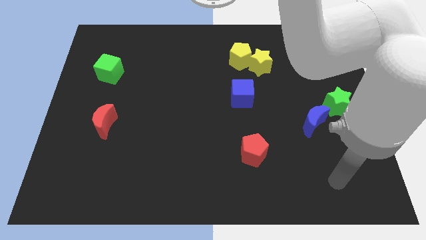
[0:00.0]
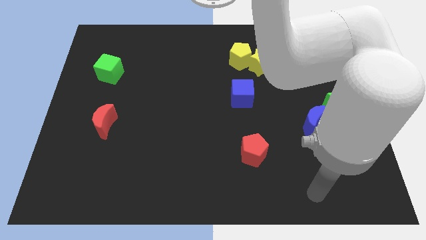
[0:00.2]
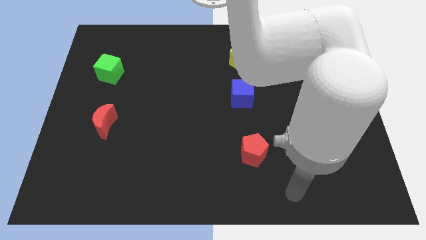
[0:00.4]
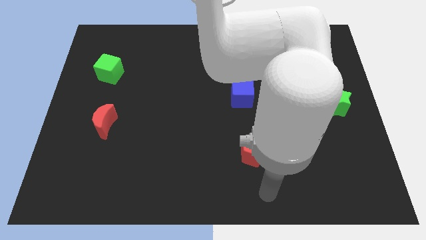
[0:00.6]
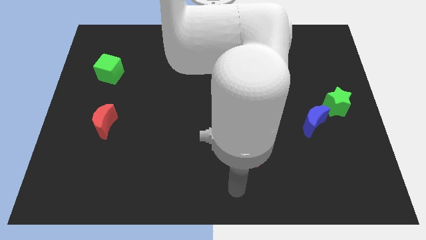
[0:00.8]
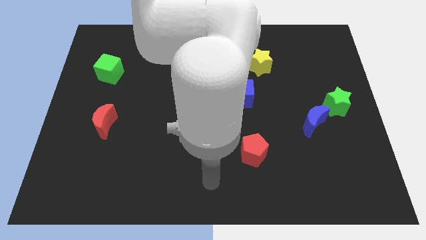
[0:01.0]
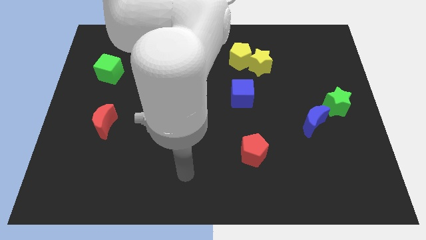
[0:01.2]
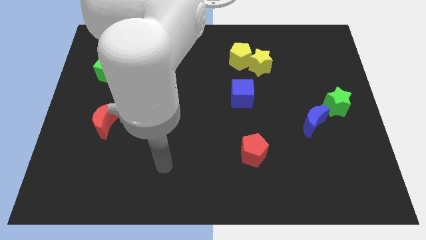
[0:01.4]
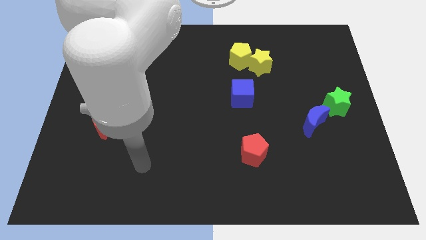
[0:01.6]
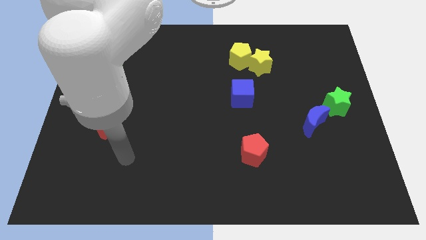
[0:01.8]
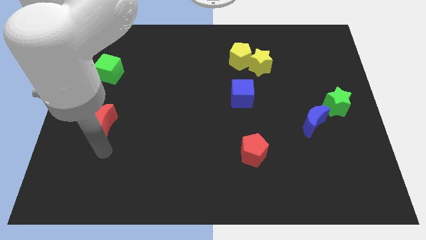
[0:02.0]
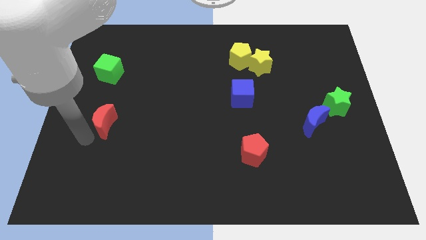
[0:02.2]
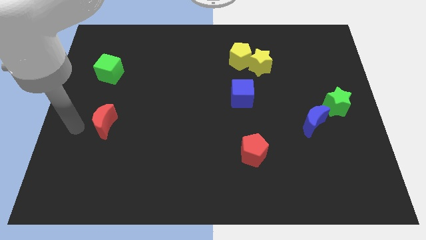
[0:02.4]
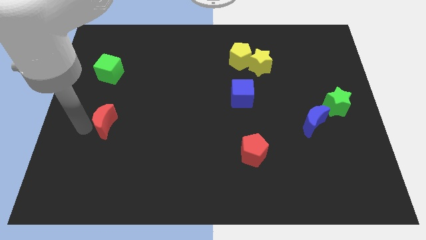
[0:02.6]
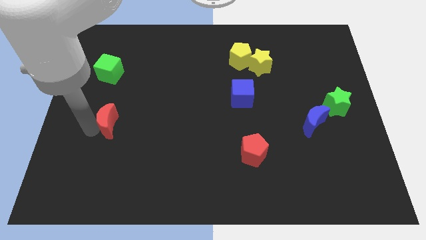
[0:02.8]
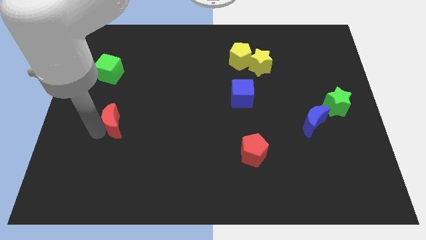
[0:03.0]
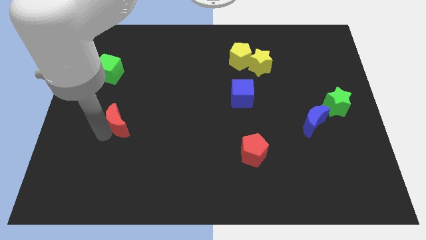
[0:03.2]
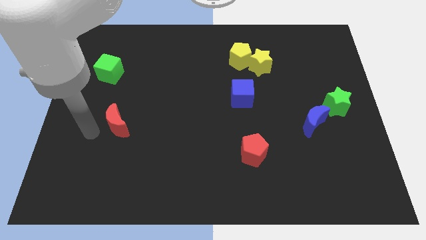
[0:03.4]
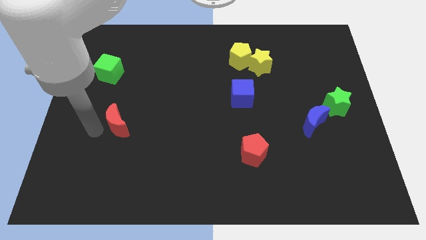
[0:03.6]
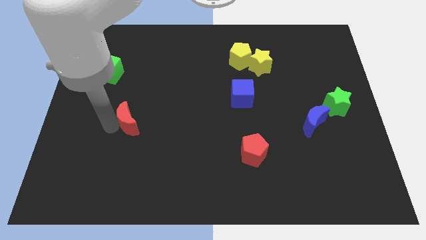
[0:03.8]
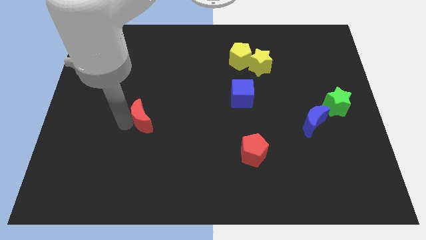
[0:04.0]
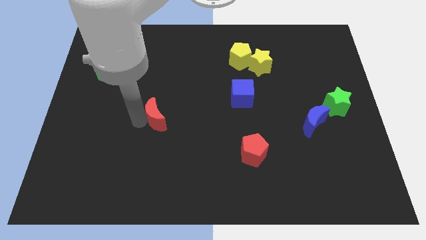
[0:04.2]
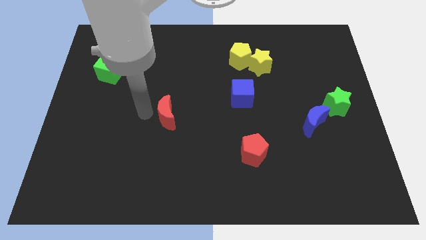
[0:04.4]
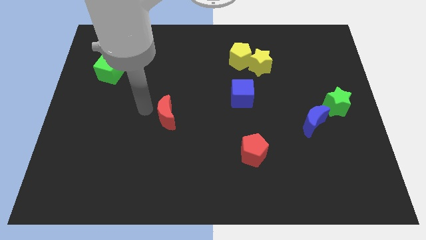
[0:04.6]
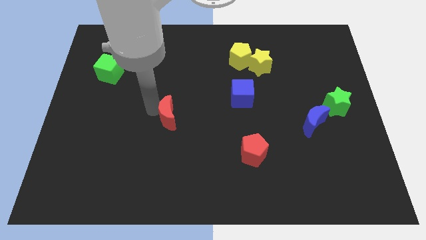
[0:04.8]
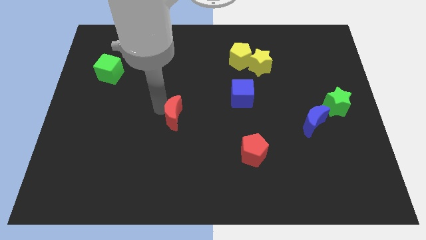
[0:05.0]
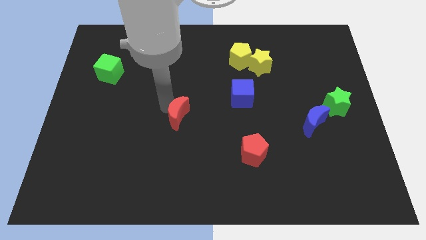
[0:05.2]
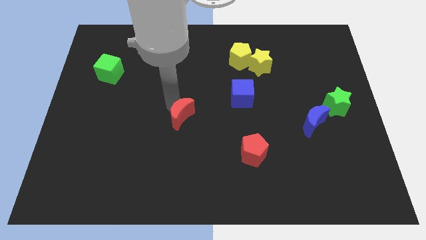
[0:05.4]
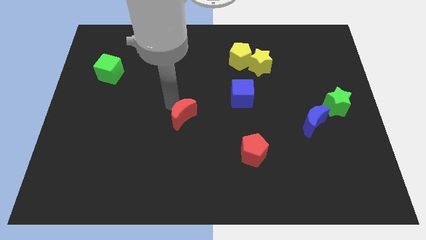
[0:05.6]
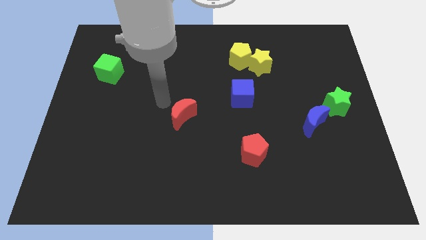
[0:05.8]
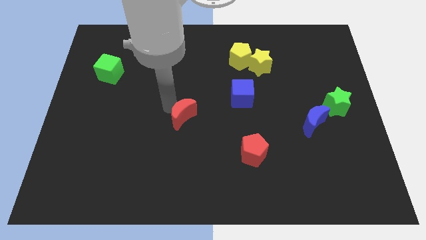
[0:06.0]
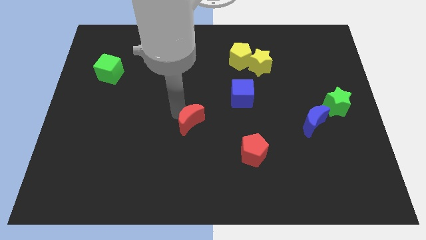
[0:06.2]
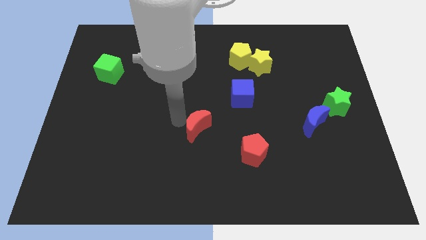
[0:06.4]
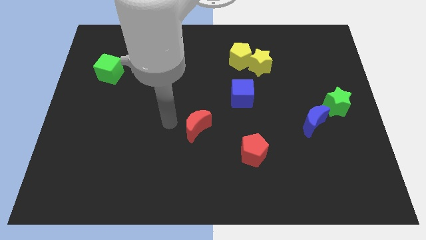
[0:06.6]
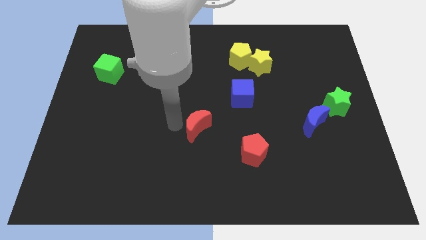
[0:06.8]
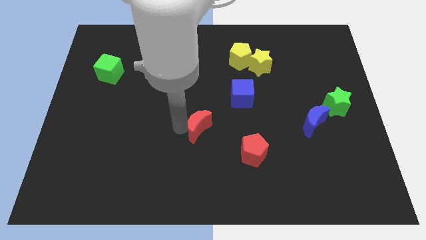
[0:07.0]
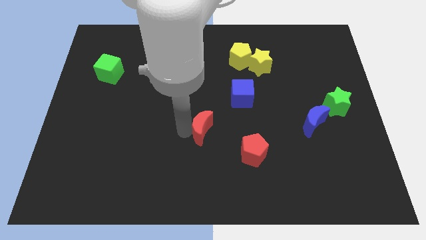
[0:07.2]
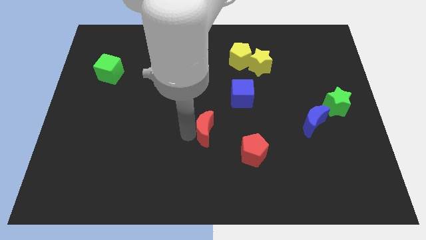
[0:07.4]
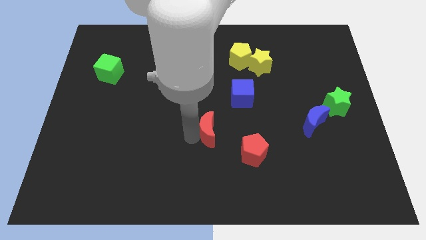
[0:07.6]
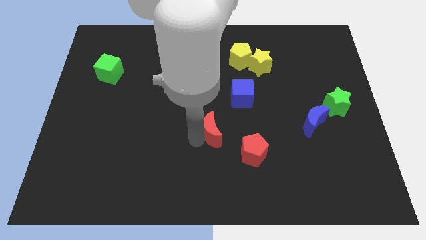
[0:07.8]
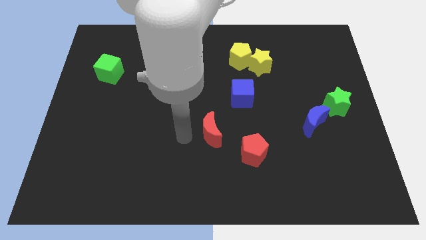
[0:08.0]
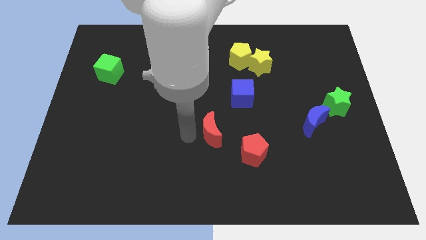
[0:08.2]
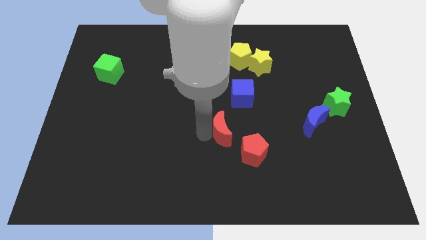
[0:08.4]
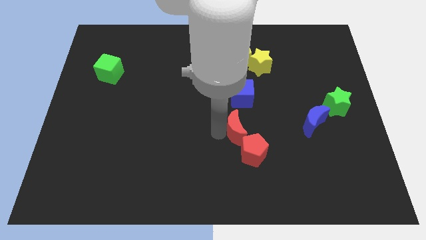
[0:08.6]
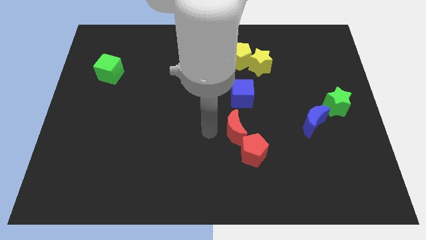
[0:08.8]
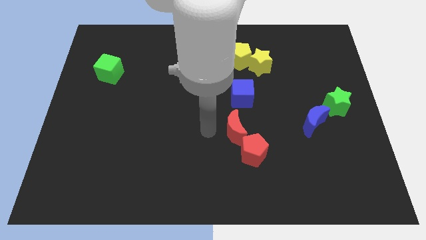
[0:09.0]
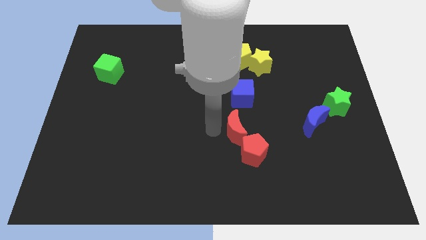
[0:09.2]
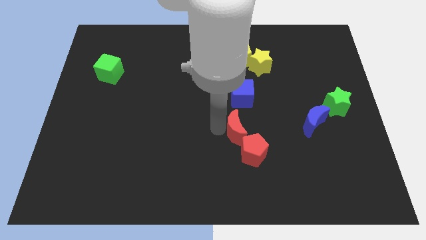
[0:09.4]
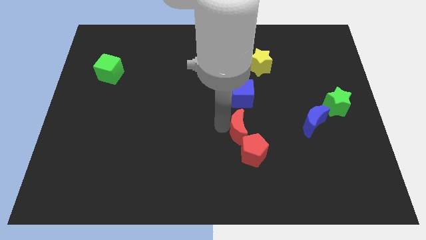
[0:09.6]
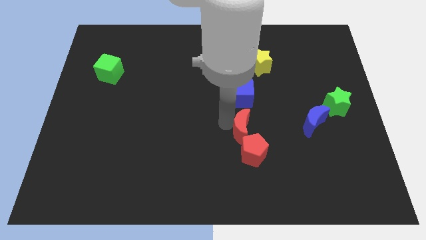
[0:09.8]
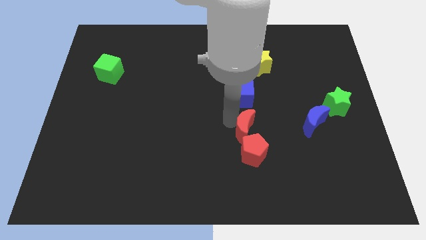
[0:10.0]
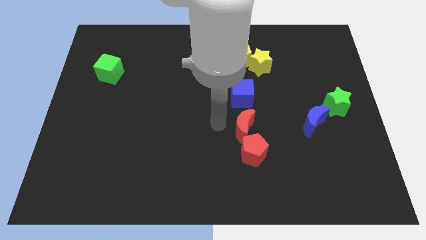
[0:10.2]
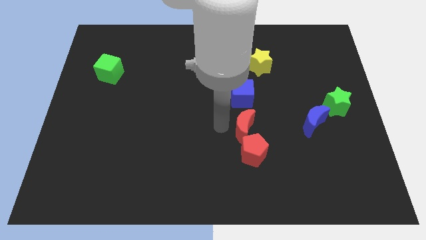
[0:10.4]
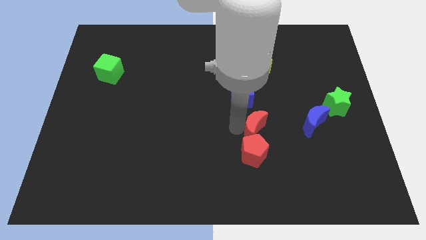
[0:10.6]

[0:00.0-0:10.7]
move the red moon diagonally up and to the right of the red pentagon

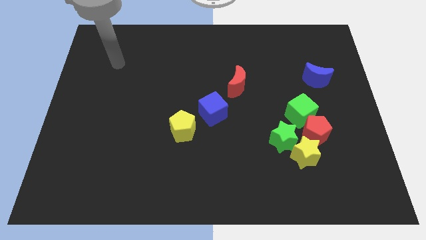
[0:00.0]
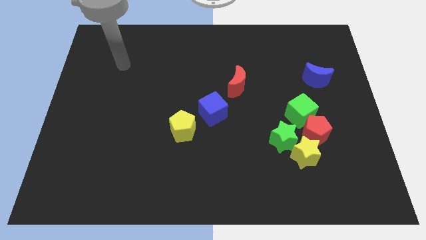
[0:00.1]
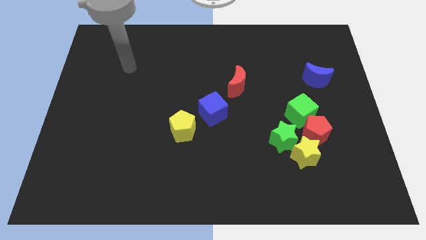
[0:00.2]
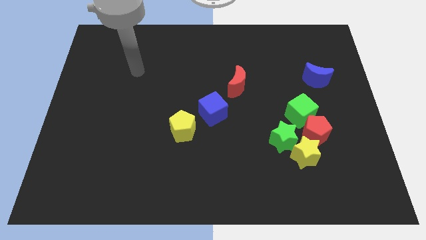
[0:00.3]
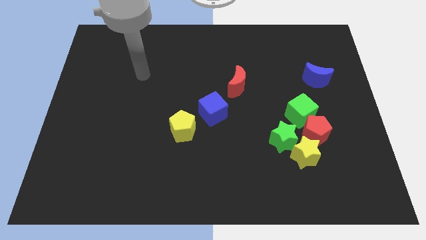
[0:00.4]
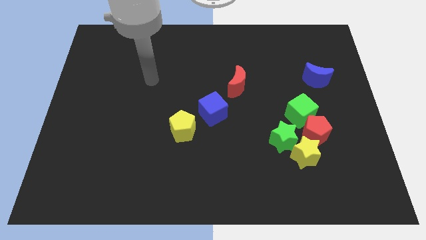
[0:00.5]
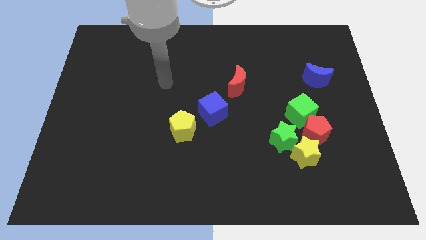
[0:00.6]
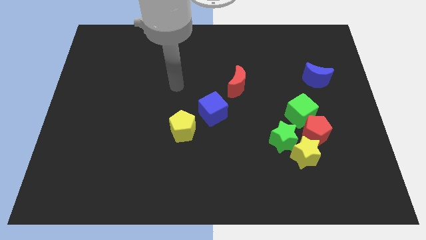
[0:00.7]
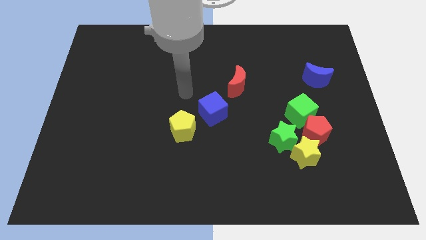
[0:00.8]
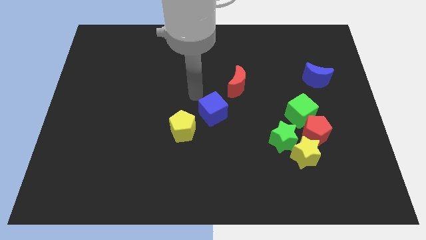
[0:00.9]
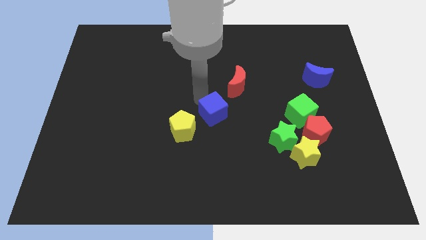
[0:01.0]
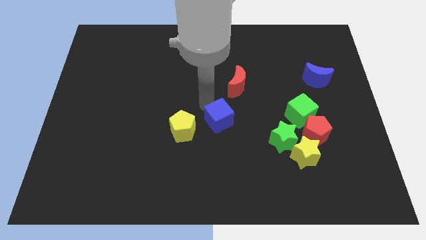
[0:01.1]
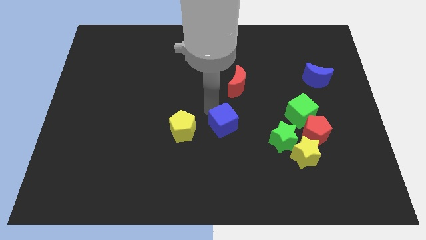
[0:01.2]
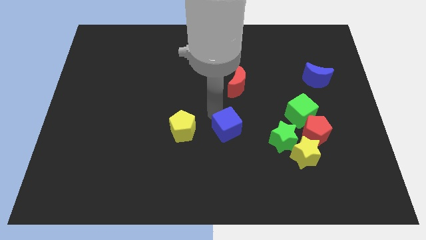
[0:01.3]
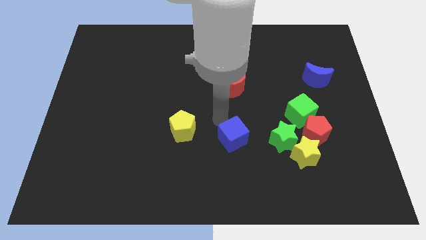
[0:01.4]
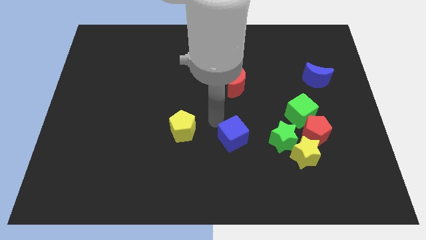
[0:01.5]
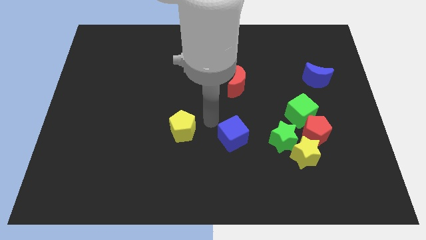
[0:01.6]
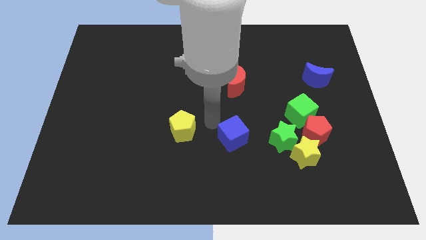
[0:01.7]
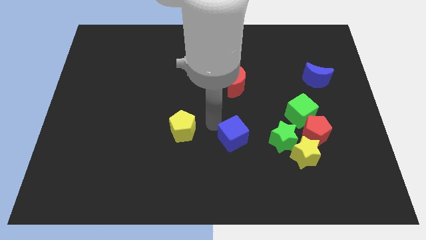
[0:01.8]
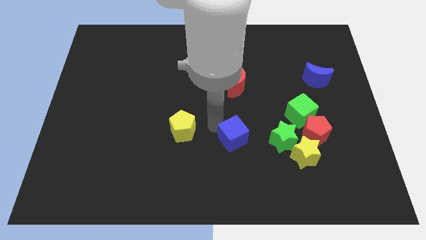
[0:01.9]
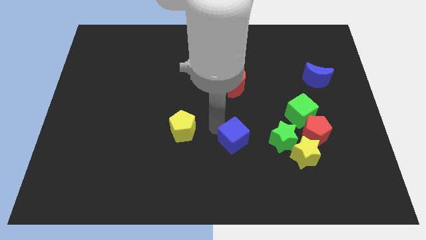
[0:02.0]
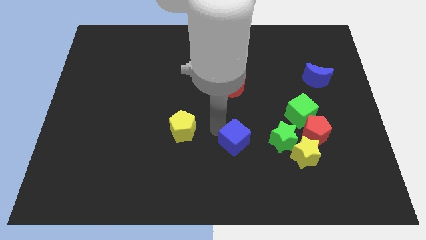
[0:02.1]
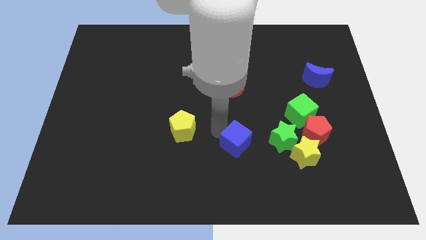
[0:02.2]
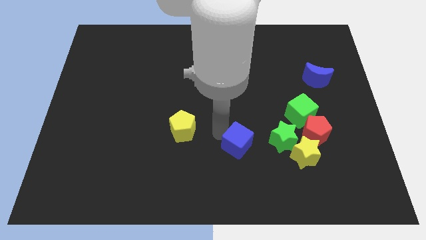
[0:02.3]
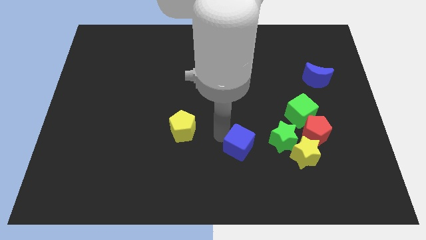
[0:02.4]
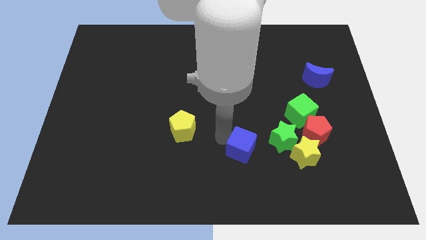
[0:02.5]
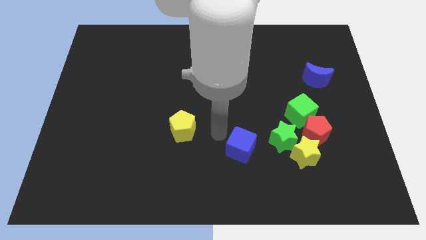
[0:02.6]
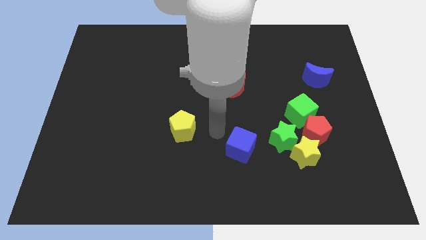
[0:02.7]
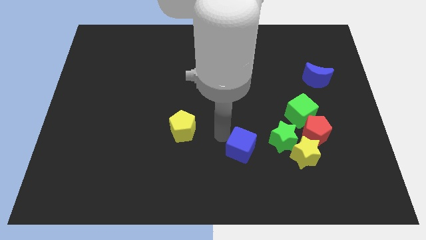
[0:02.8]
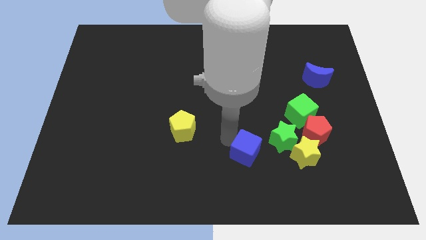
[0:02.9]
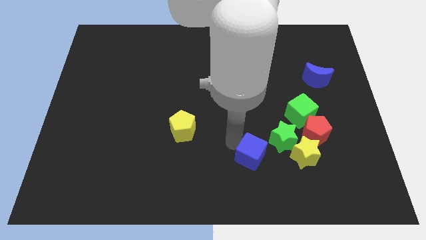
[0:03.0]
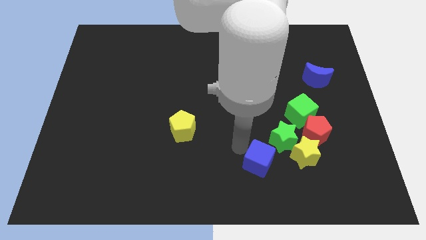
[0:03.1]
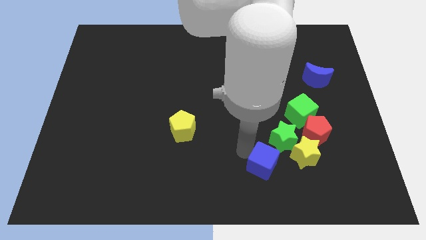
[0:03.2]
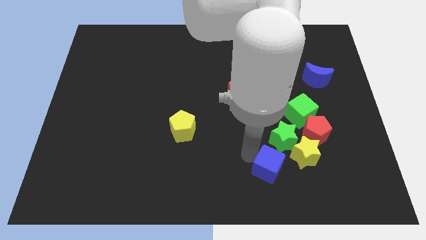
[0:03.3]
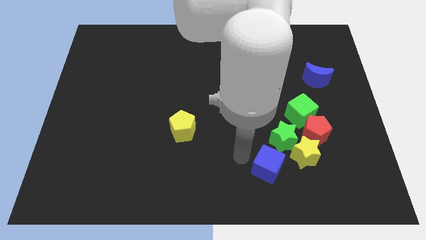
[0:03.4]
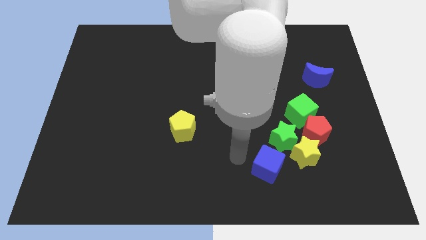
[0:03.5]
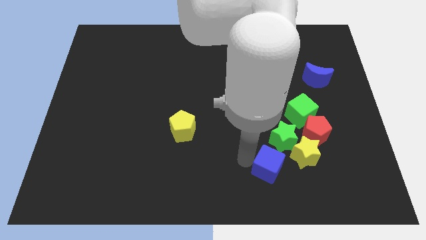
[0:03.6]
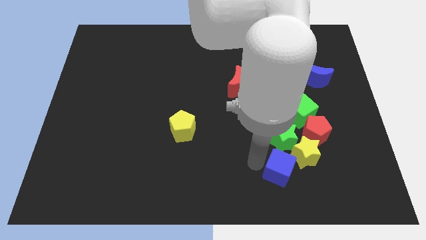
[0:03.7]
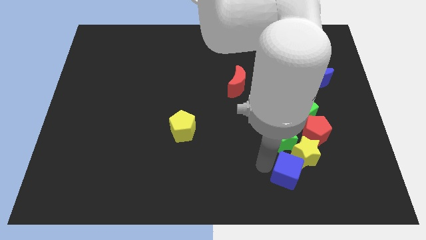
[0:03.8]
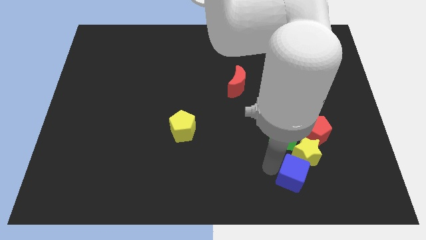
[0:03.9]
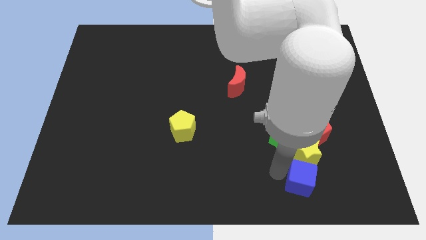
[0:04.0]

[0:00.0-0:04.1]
put the blue cube diagonally down and to the right of the green star
